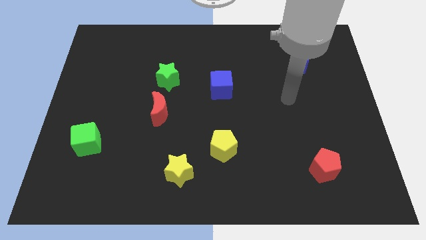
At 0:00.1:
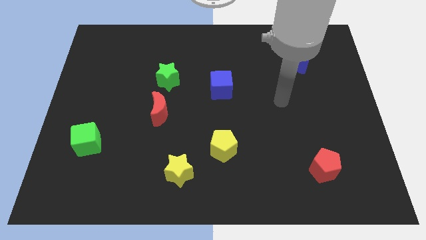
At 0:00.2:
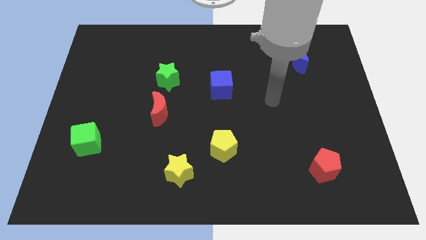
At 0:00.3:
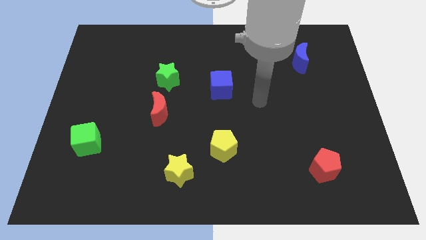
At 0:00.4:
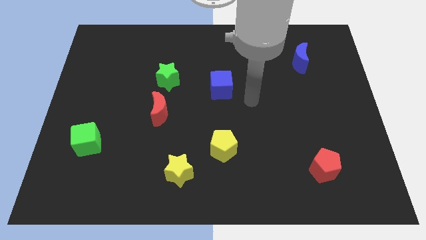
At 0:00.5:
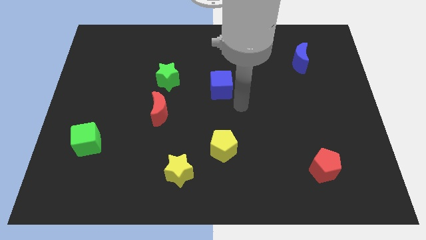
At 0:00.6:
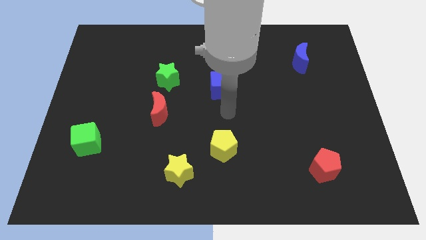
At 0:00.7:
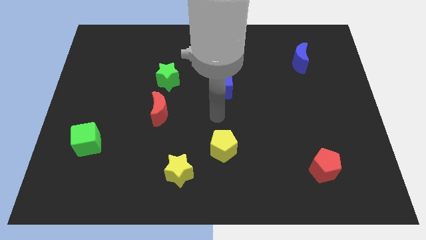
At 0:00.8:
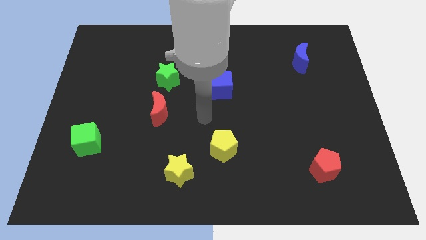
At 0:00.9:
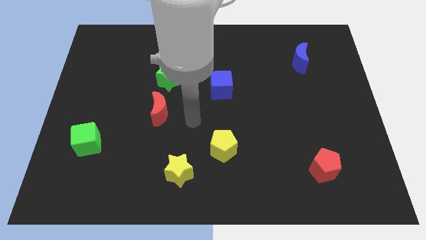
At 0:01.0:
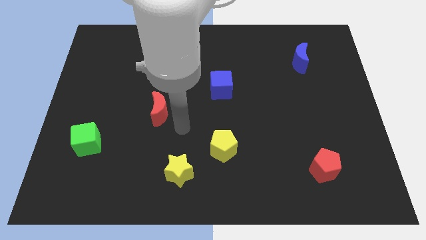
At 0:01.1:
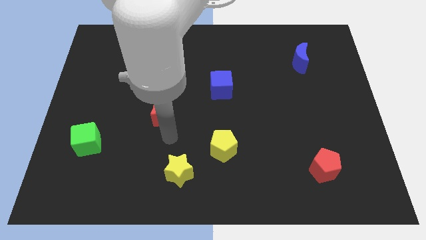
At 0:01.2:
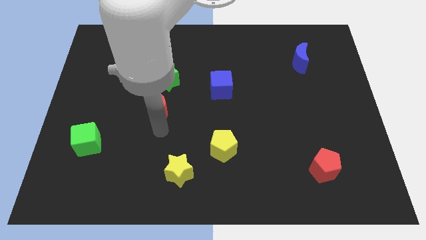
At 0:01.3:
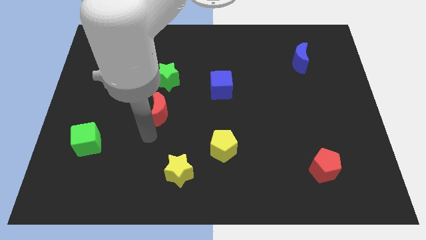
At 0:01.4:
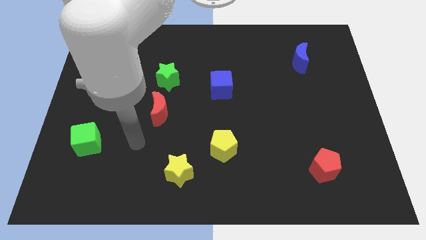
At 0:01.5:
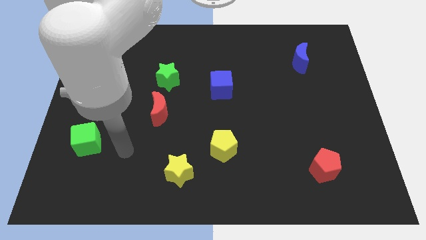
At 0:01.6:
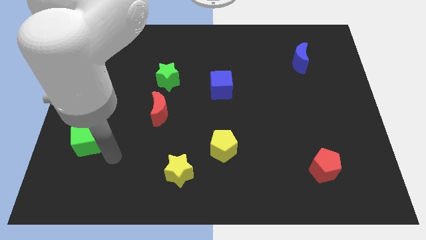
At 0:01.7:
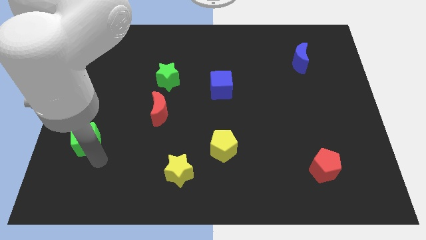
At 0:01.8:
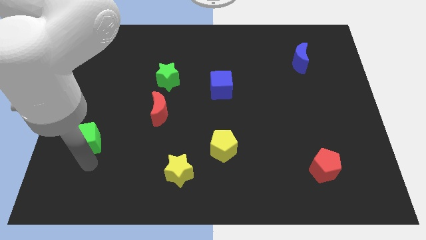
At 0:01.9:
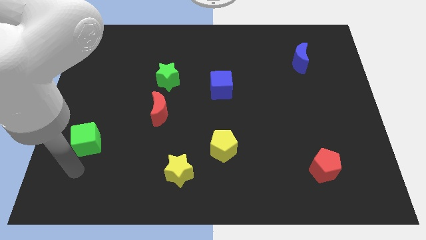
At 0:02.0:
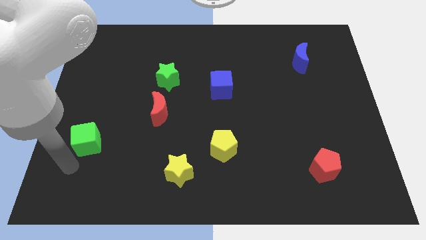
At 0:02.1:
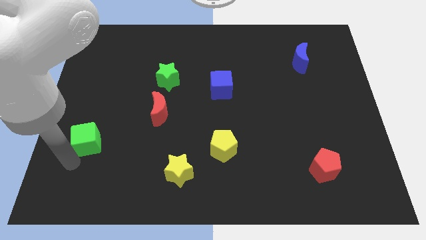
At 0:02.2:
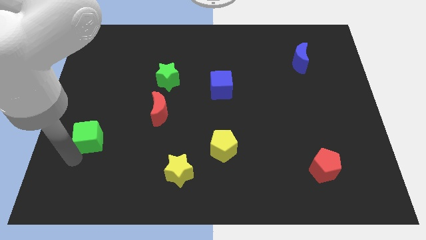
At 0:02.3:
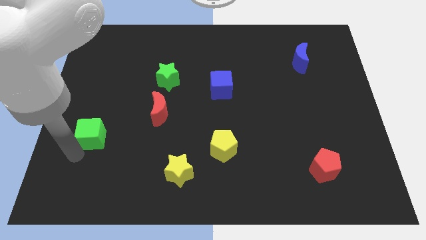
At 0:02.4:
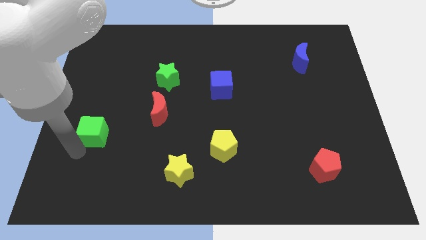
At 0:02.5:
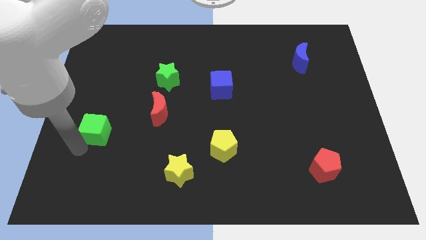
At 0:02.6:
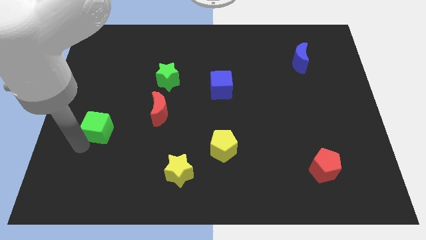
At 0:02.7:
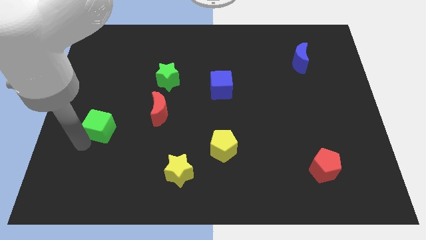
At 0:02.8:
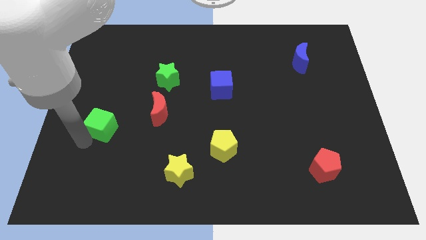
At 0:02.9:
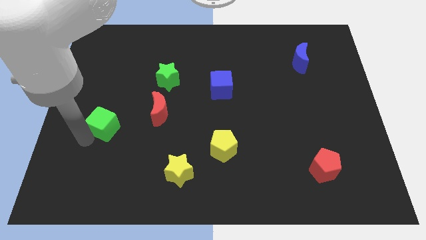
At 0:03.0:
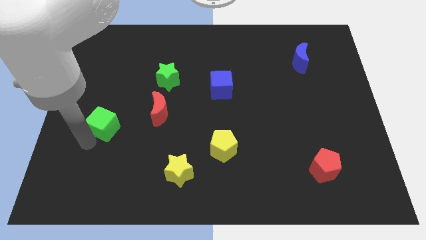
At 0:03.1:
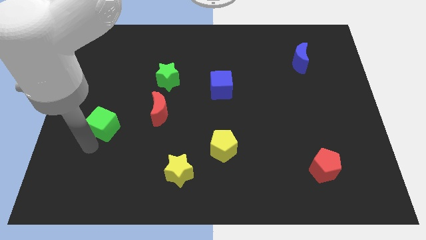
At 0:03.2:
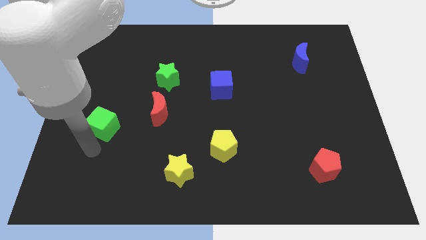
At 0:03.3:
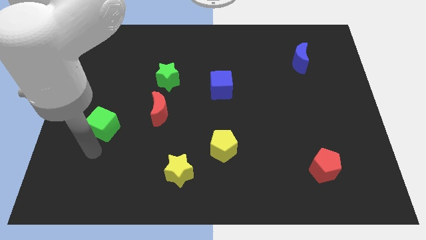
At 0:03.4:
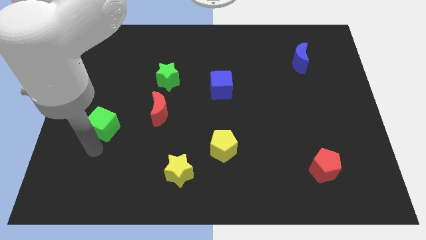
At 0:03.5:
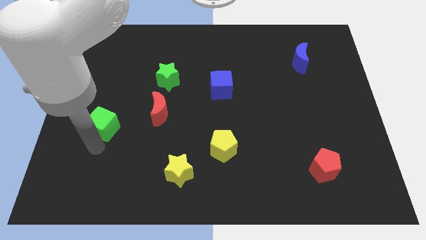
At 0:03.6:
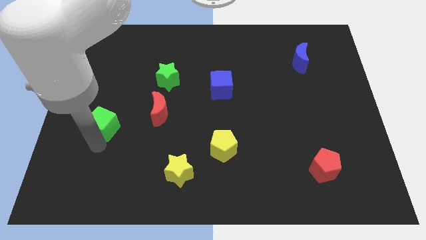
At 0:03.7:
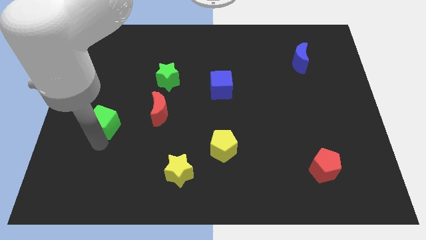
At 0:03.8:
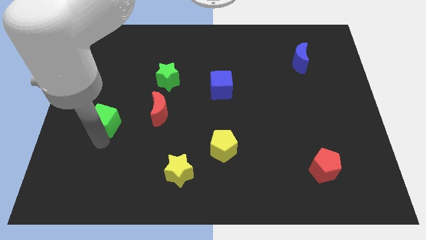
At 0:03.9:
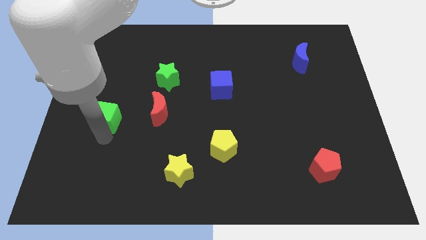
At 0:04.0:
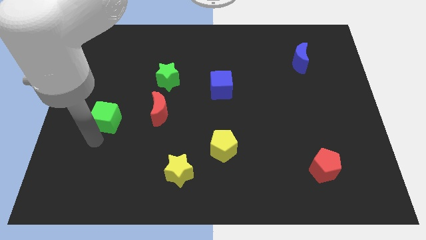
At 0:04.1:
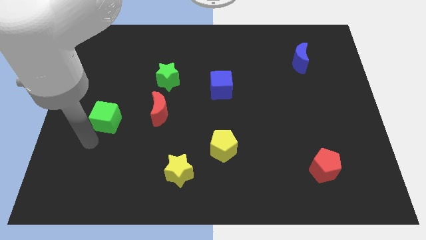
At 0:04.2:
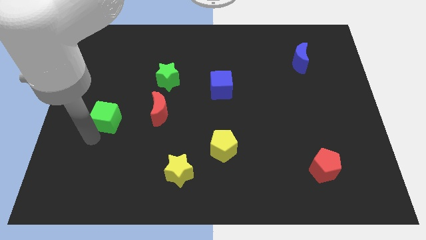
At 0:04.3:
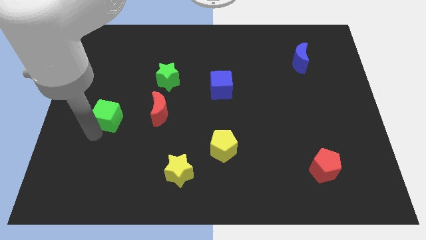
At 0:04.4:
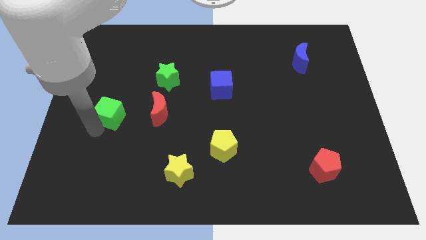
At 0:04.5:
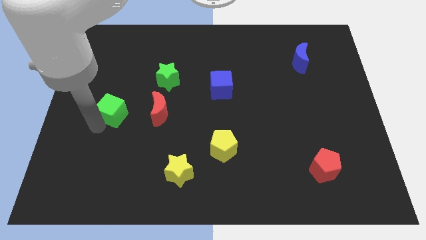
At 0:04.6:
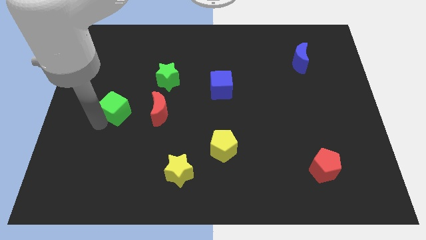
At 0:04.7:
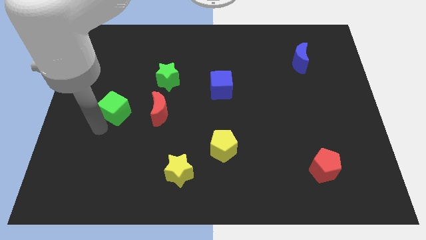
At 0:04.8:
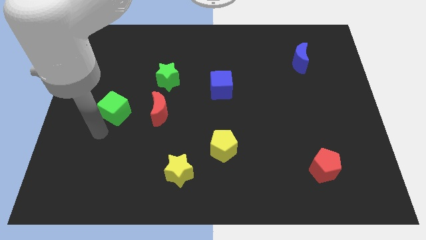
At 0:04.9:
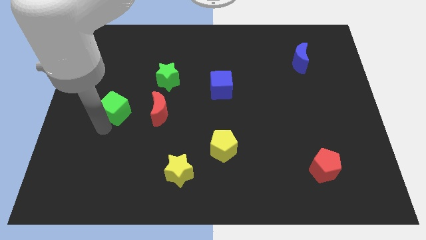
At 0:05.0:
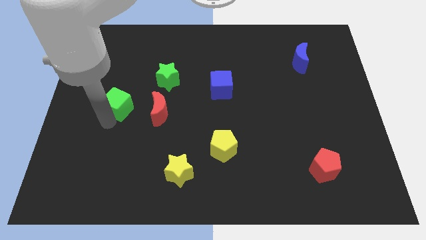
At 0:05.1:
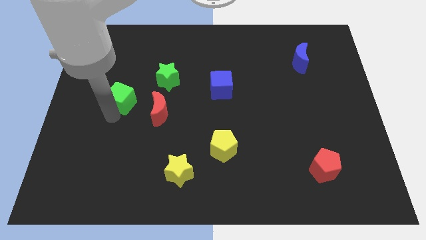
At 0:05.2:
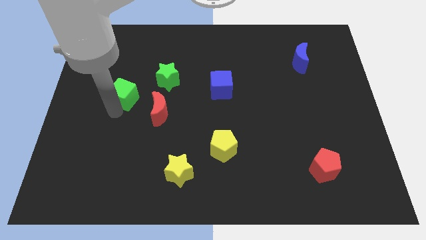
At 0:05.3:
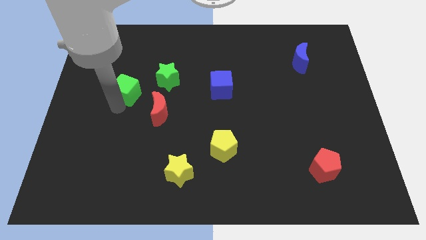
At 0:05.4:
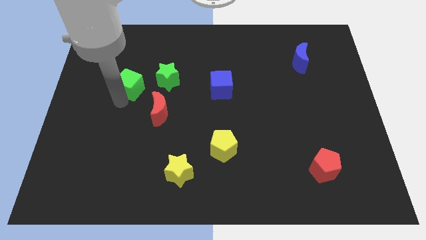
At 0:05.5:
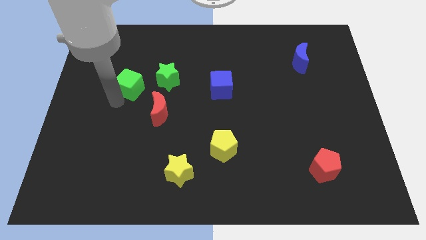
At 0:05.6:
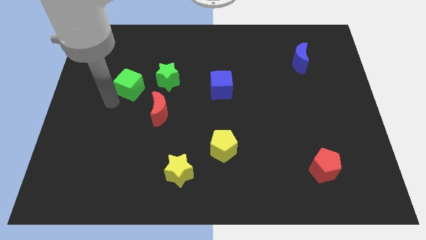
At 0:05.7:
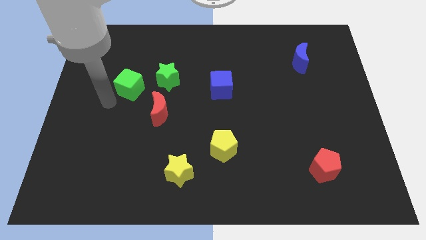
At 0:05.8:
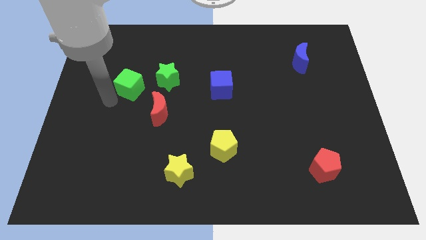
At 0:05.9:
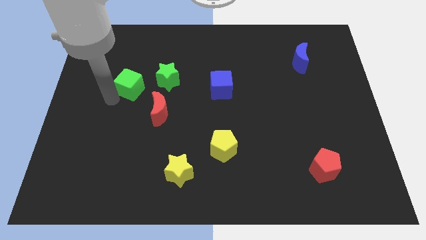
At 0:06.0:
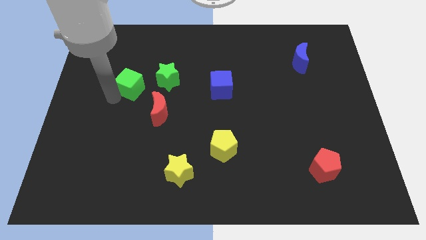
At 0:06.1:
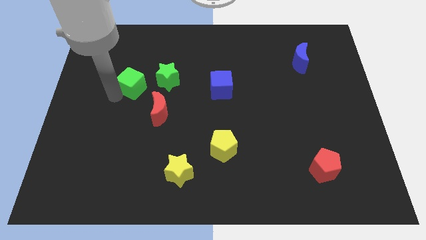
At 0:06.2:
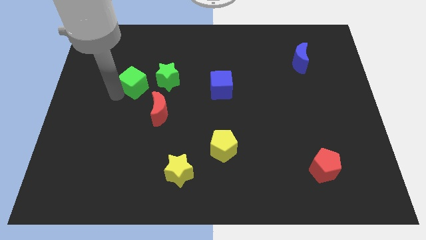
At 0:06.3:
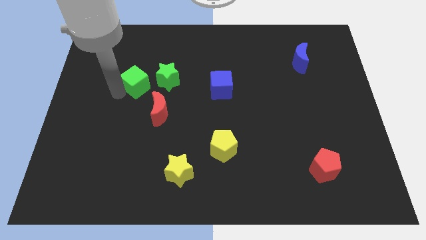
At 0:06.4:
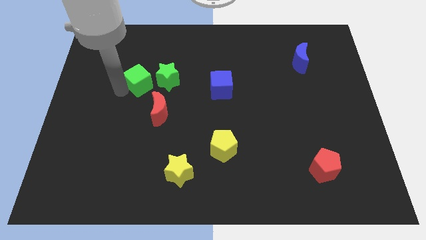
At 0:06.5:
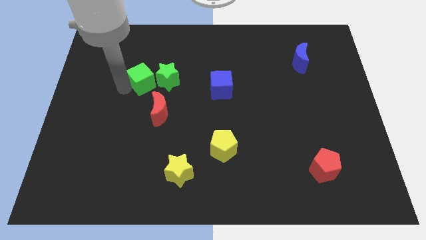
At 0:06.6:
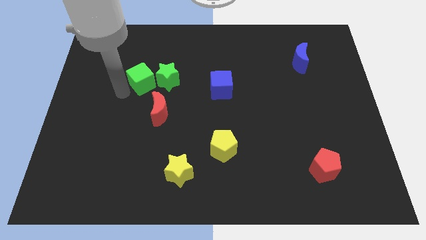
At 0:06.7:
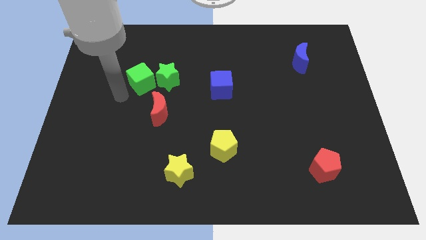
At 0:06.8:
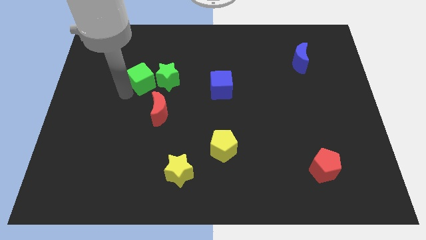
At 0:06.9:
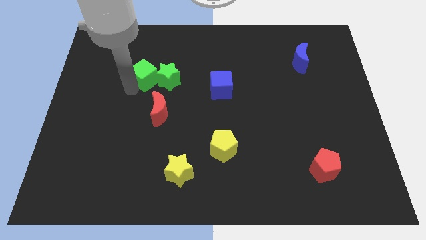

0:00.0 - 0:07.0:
push the green cube above the red moon
